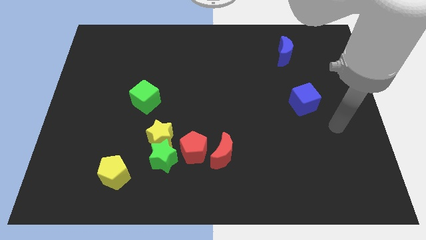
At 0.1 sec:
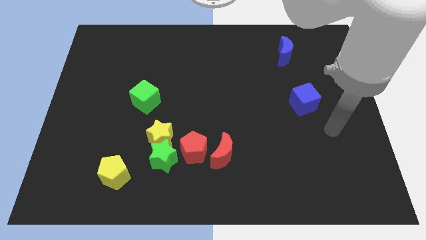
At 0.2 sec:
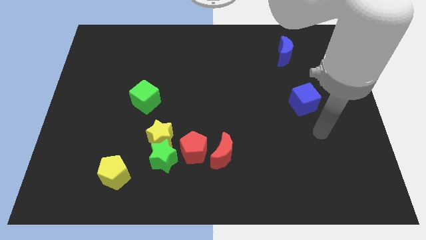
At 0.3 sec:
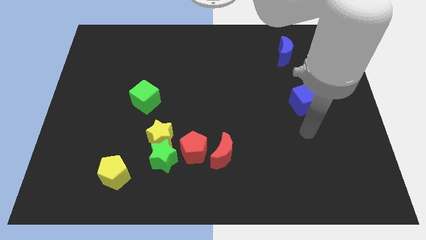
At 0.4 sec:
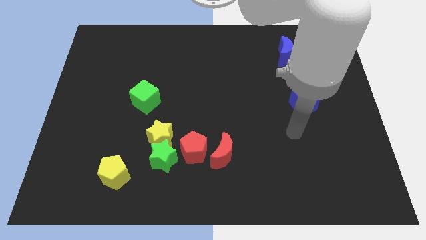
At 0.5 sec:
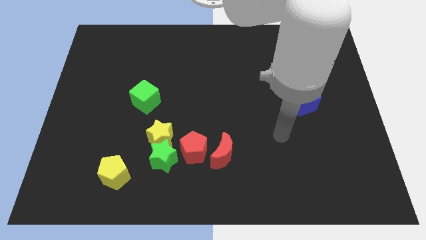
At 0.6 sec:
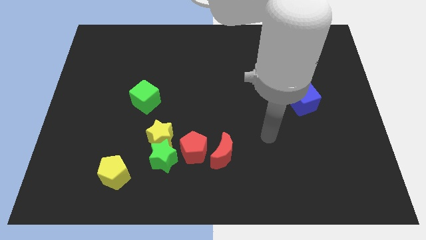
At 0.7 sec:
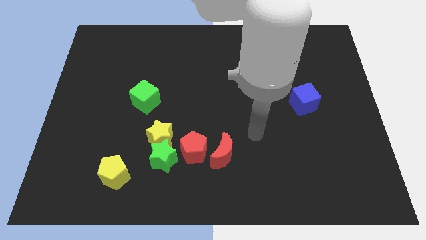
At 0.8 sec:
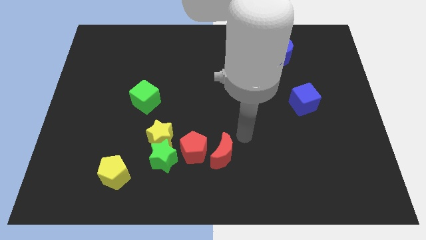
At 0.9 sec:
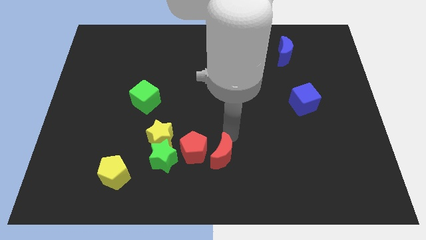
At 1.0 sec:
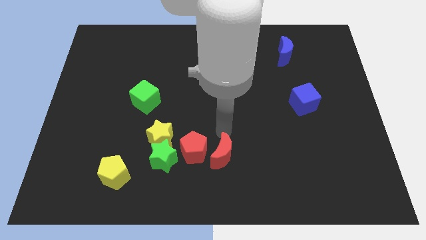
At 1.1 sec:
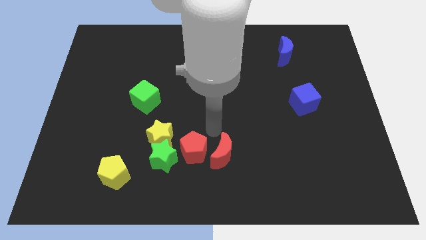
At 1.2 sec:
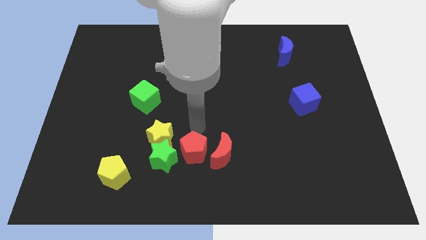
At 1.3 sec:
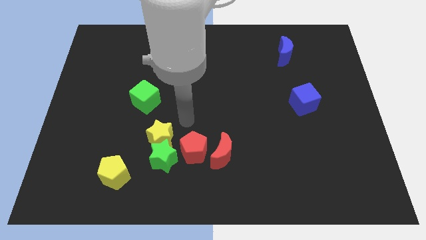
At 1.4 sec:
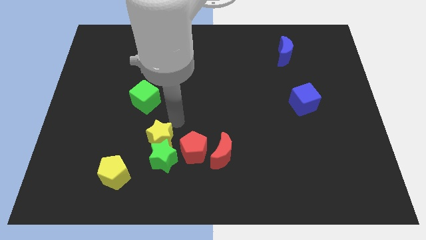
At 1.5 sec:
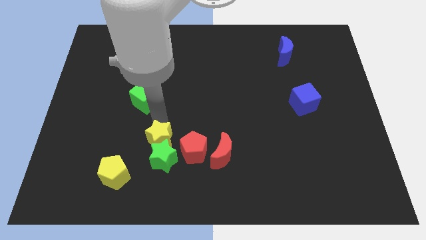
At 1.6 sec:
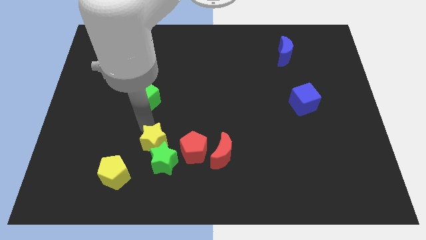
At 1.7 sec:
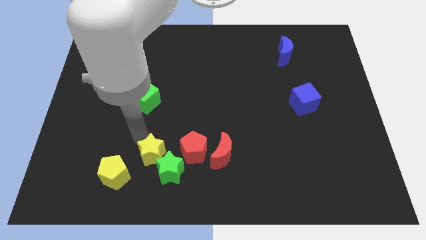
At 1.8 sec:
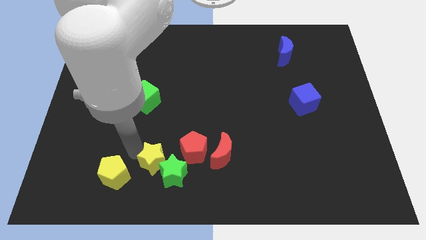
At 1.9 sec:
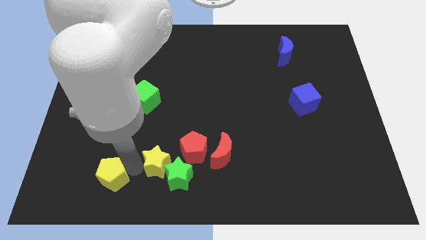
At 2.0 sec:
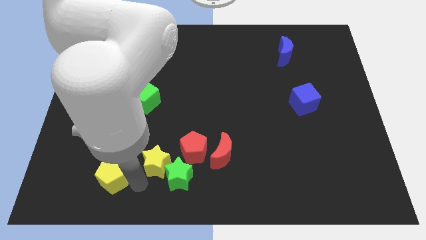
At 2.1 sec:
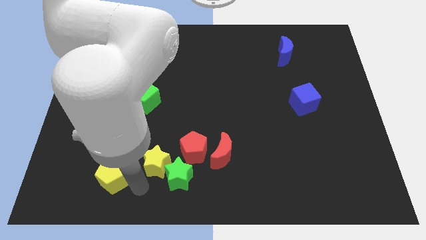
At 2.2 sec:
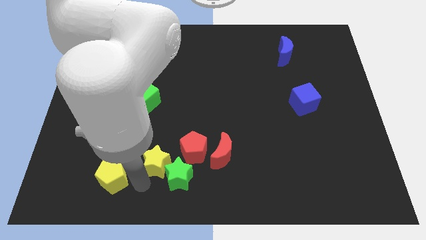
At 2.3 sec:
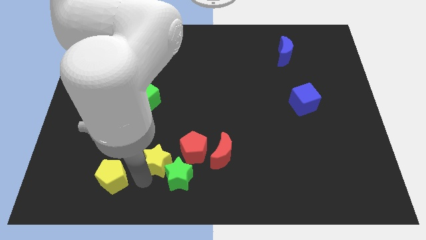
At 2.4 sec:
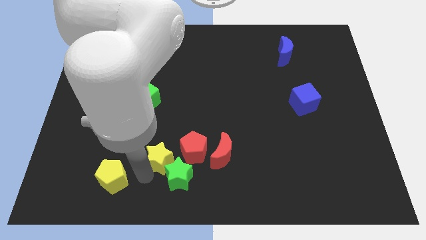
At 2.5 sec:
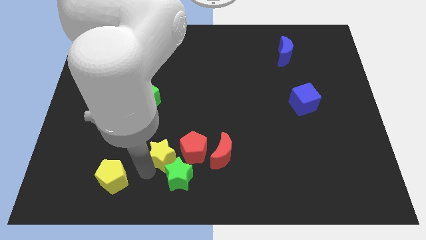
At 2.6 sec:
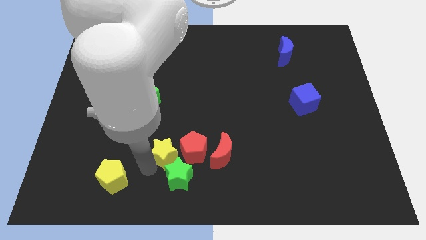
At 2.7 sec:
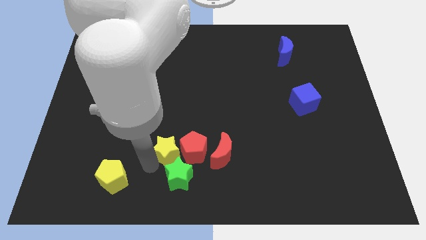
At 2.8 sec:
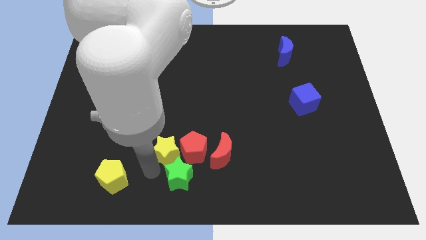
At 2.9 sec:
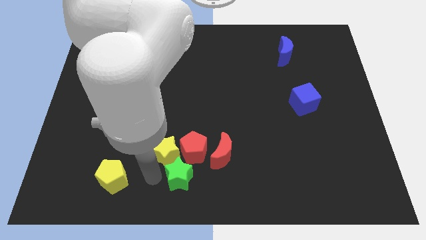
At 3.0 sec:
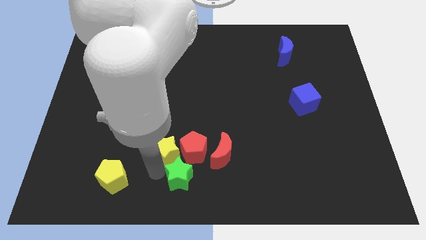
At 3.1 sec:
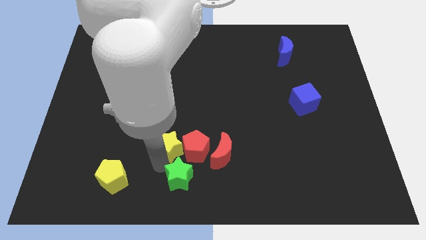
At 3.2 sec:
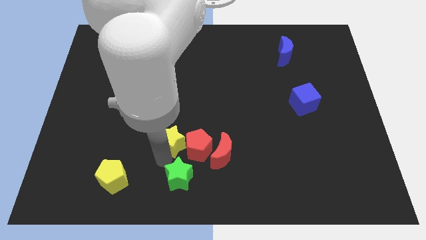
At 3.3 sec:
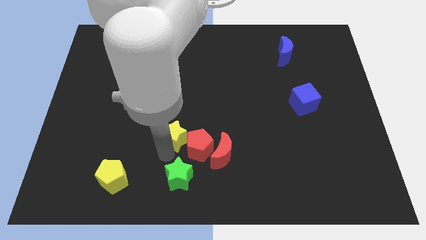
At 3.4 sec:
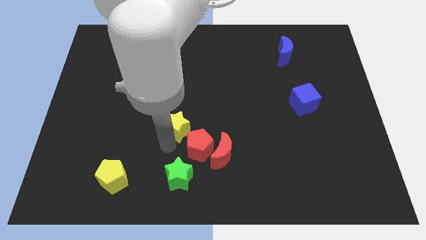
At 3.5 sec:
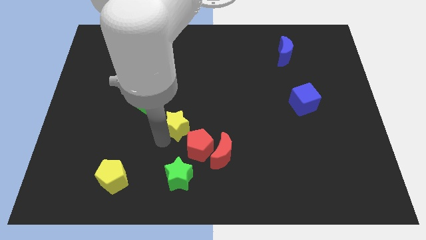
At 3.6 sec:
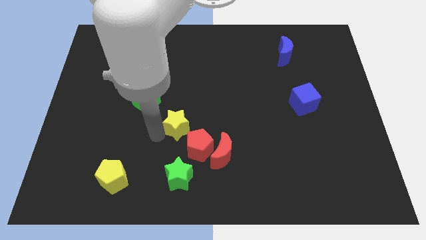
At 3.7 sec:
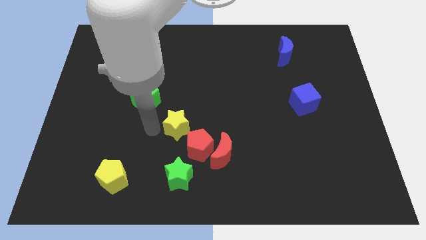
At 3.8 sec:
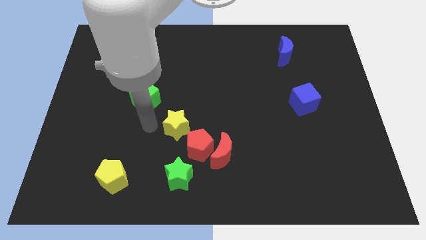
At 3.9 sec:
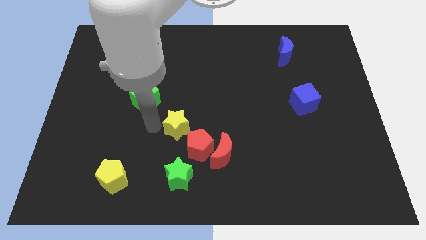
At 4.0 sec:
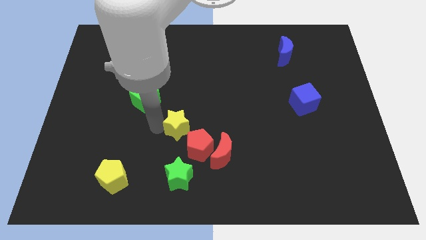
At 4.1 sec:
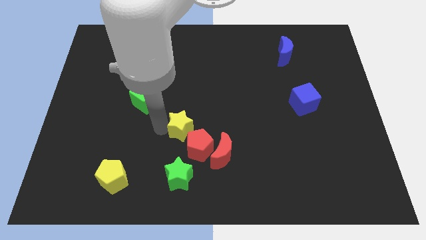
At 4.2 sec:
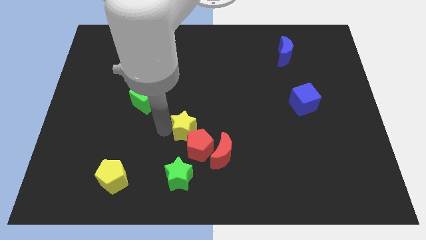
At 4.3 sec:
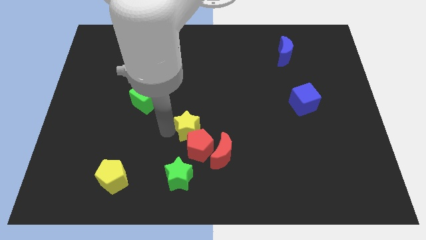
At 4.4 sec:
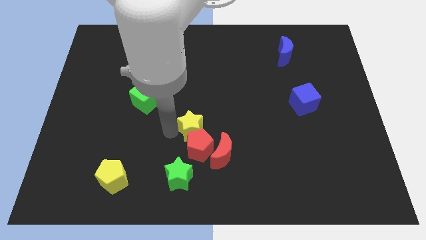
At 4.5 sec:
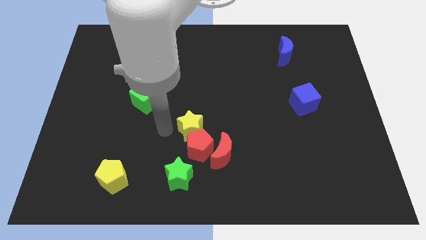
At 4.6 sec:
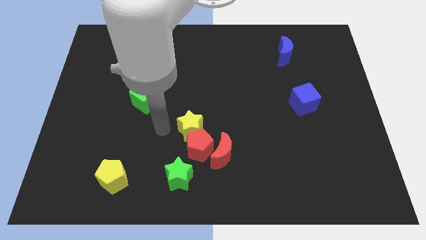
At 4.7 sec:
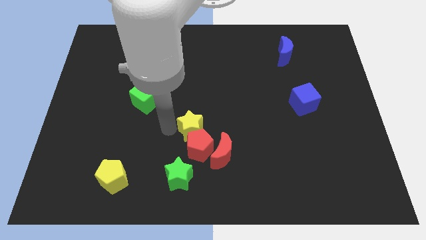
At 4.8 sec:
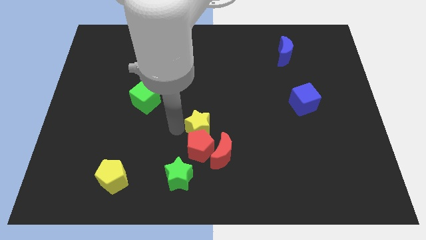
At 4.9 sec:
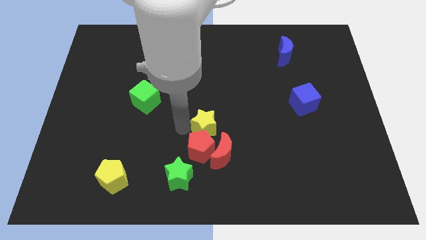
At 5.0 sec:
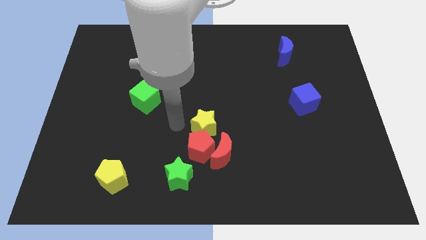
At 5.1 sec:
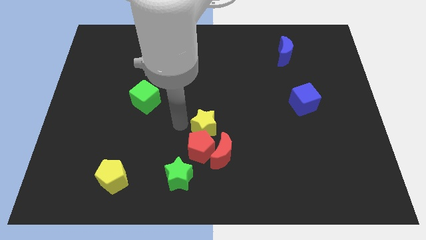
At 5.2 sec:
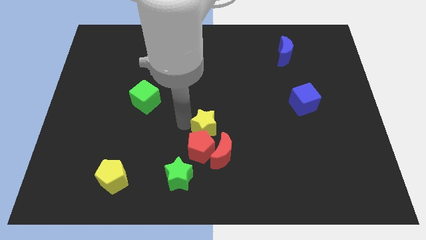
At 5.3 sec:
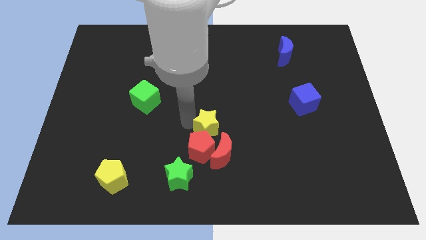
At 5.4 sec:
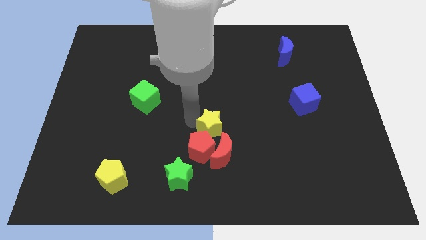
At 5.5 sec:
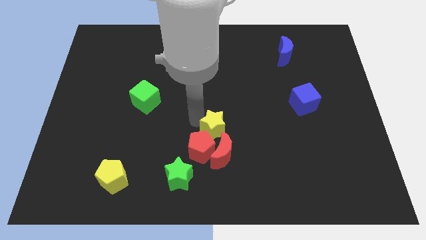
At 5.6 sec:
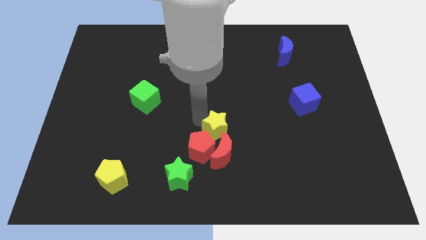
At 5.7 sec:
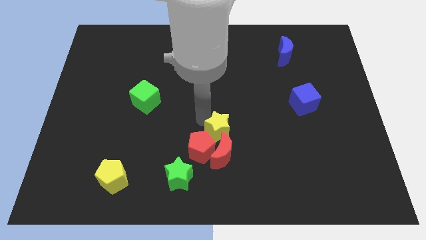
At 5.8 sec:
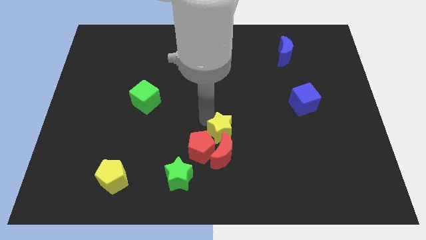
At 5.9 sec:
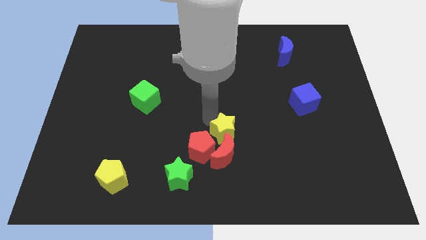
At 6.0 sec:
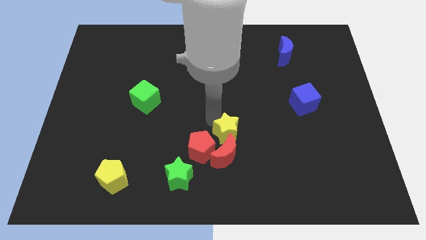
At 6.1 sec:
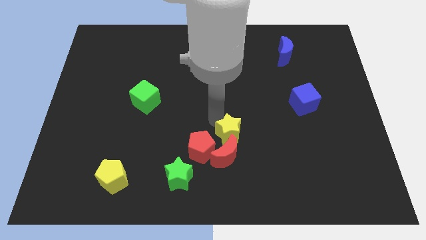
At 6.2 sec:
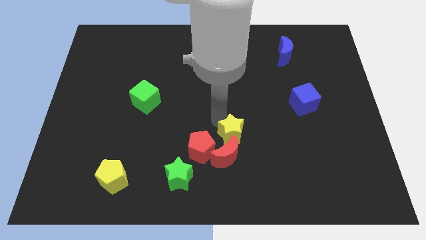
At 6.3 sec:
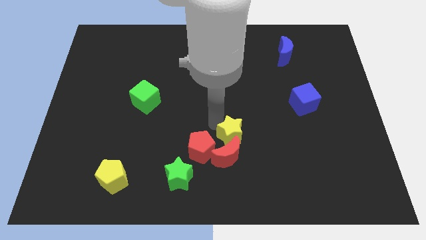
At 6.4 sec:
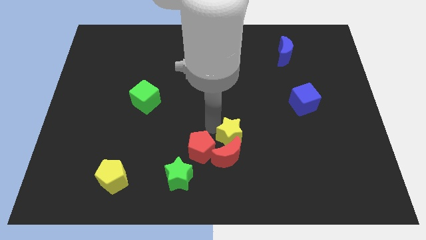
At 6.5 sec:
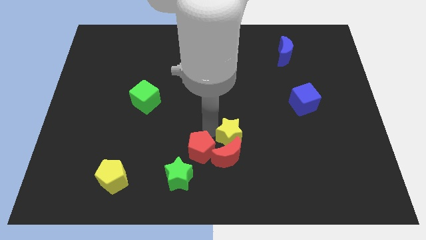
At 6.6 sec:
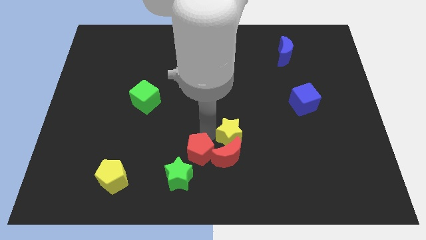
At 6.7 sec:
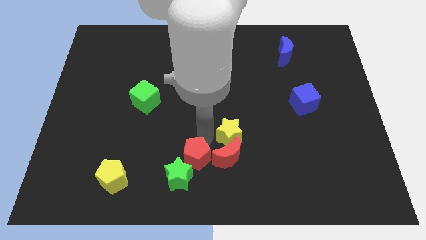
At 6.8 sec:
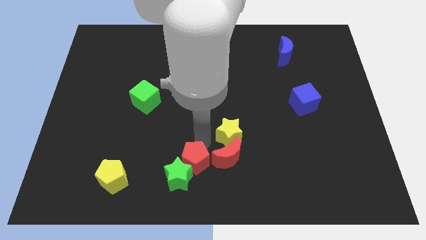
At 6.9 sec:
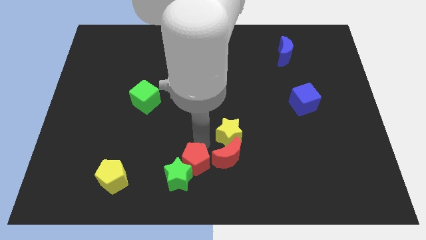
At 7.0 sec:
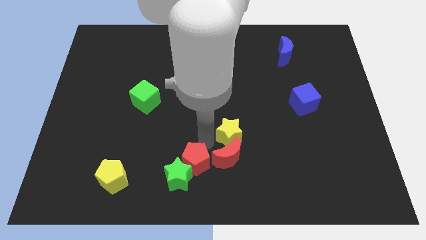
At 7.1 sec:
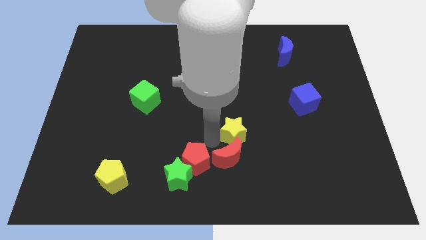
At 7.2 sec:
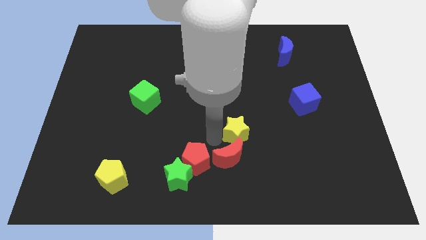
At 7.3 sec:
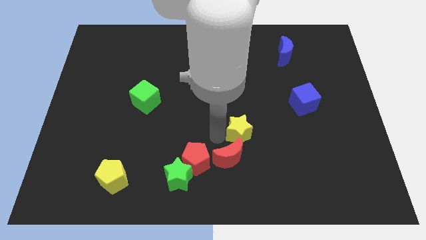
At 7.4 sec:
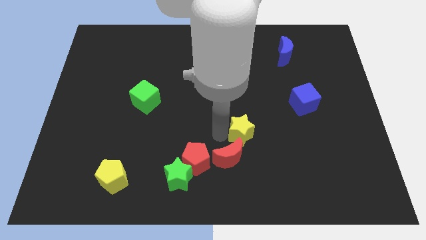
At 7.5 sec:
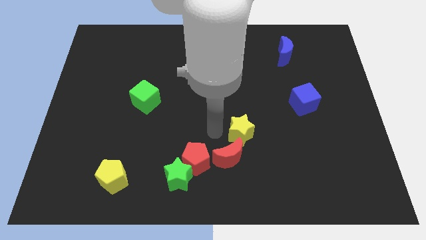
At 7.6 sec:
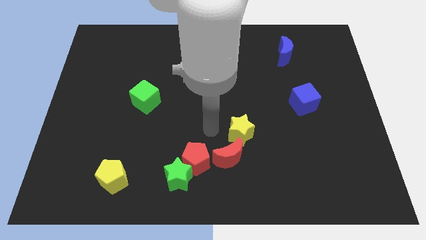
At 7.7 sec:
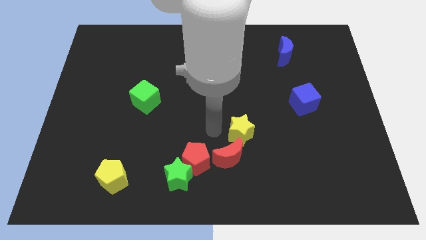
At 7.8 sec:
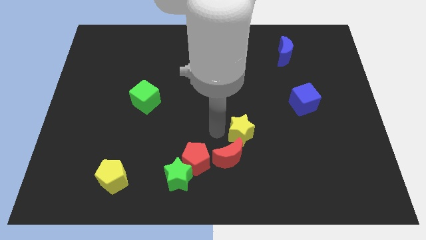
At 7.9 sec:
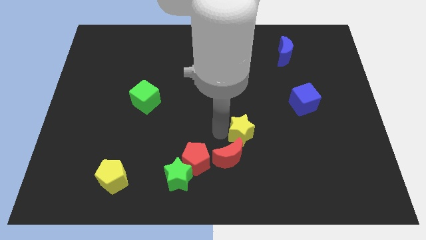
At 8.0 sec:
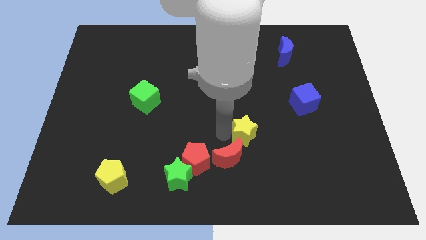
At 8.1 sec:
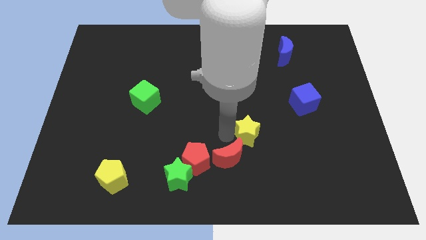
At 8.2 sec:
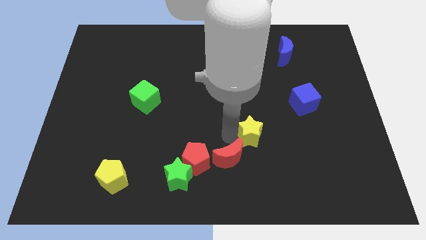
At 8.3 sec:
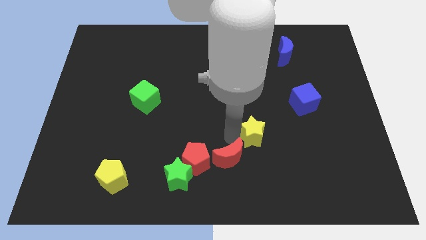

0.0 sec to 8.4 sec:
push the yellow star right
